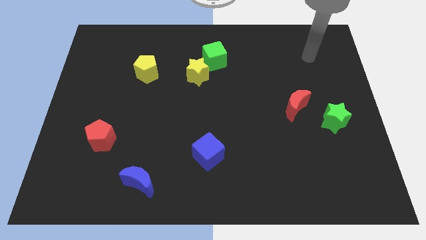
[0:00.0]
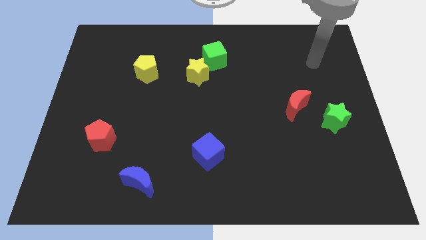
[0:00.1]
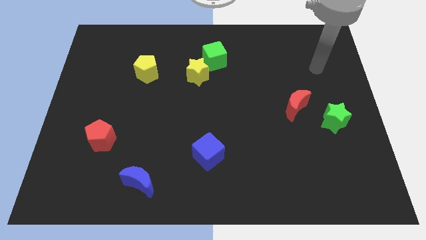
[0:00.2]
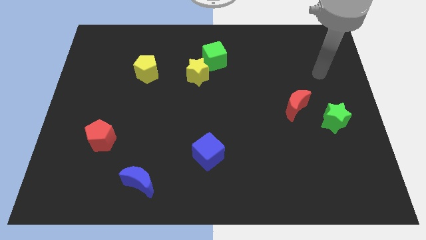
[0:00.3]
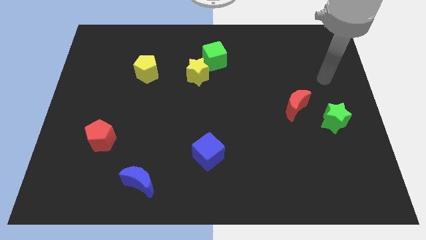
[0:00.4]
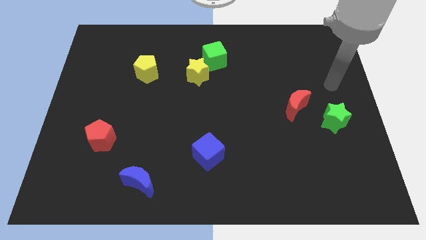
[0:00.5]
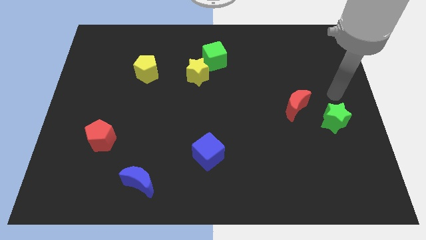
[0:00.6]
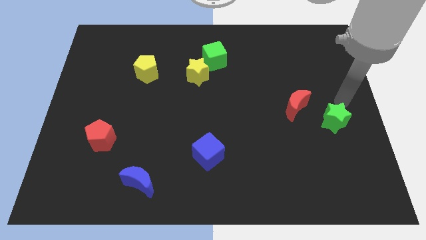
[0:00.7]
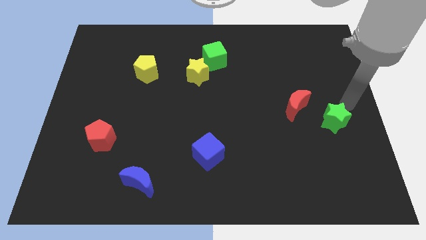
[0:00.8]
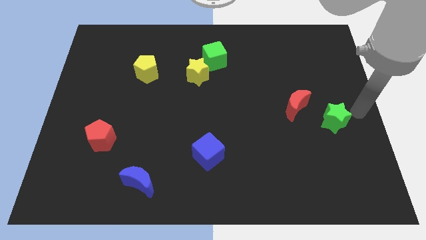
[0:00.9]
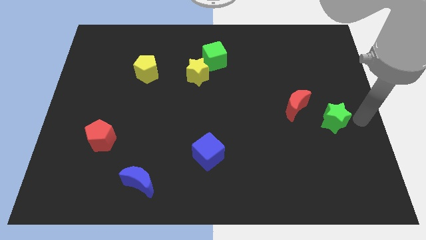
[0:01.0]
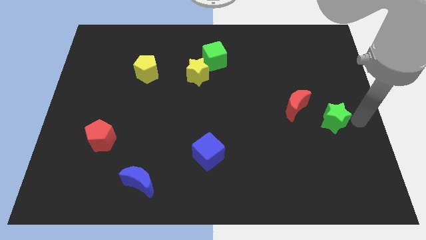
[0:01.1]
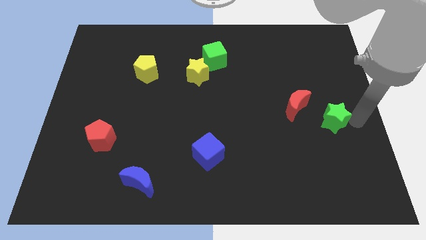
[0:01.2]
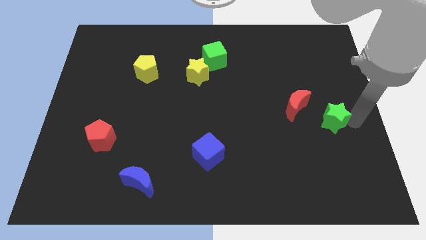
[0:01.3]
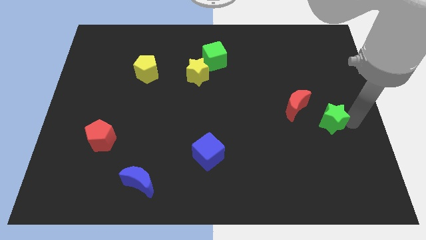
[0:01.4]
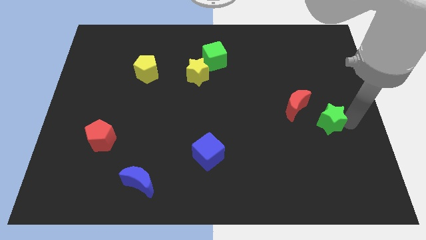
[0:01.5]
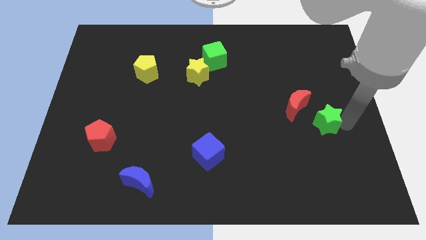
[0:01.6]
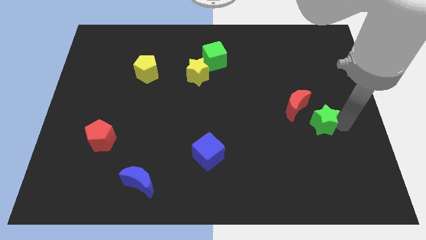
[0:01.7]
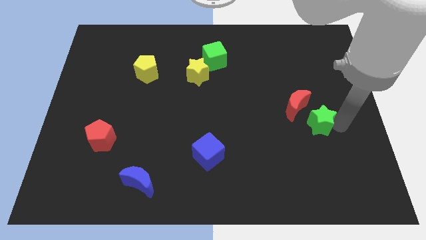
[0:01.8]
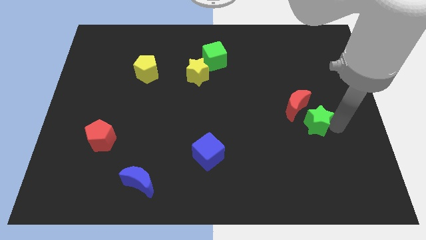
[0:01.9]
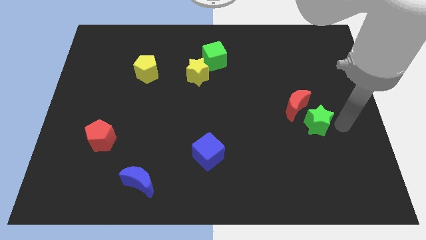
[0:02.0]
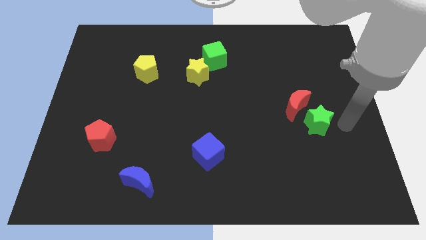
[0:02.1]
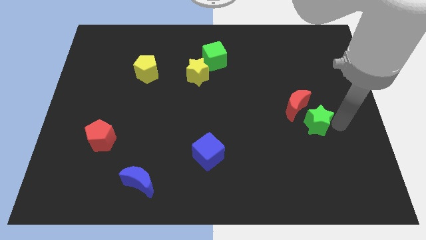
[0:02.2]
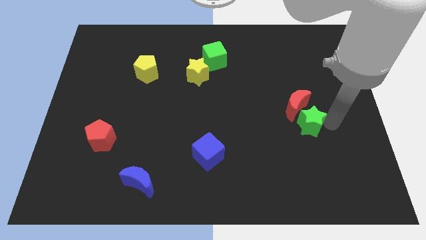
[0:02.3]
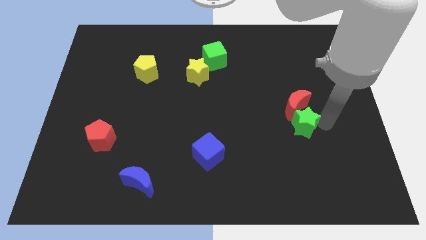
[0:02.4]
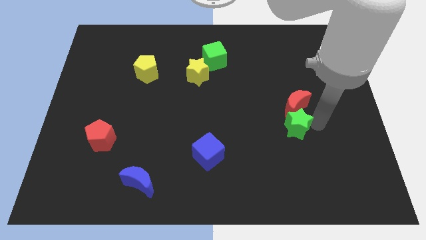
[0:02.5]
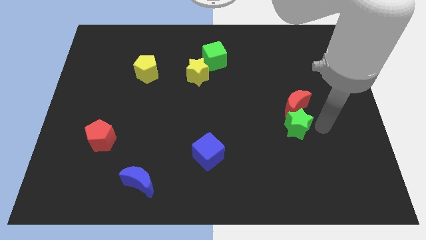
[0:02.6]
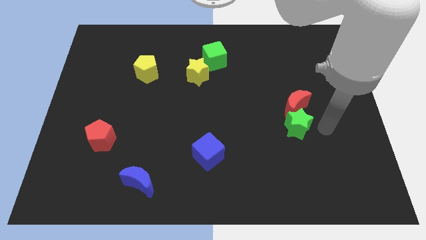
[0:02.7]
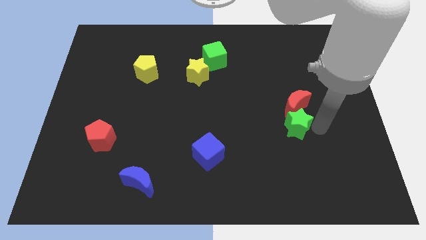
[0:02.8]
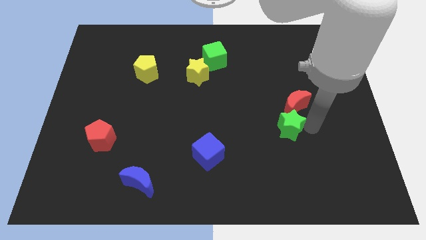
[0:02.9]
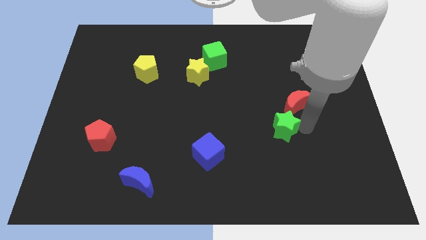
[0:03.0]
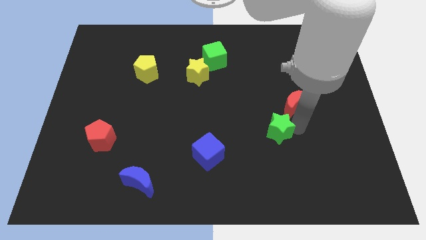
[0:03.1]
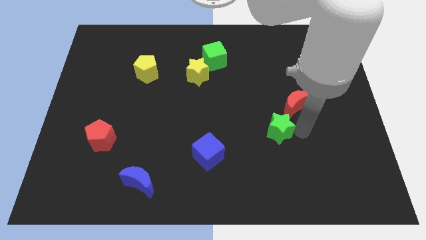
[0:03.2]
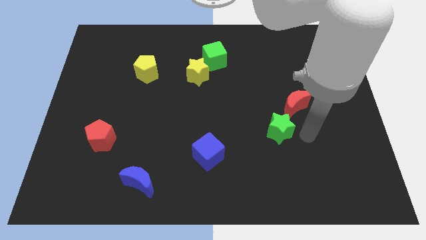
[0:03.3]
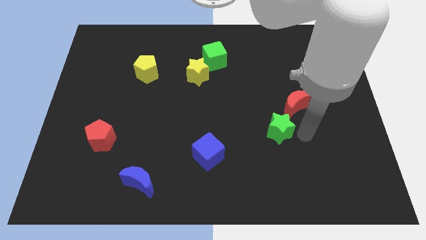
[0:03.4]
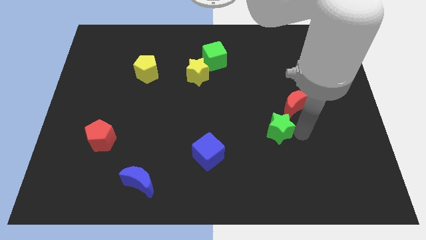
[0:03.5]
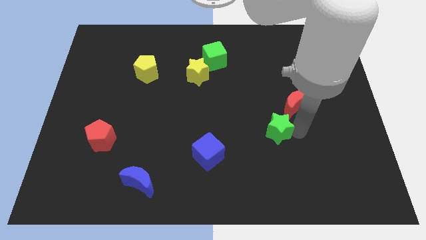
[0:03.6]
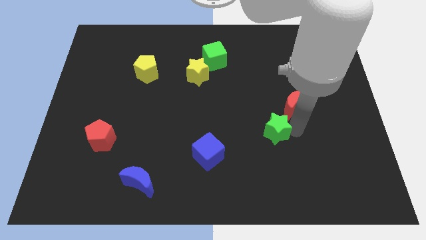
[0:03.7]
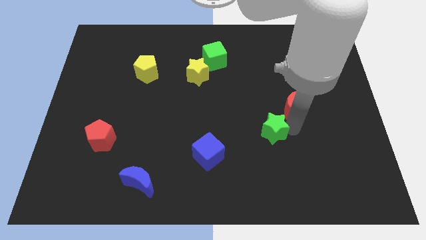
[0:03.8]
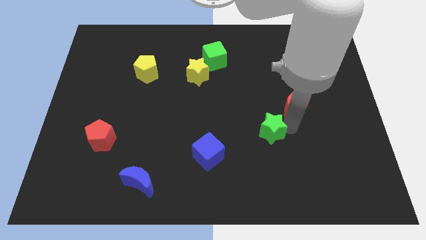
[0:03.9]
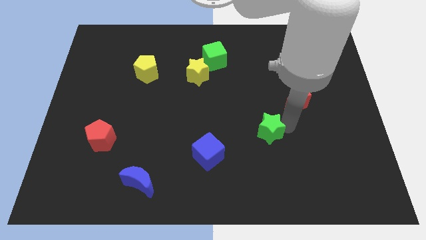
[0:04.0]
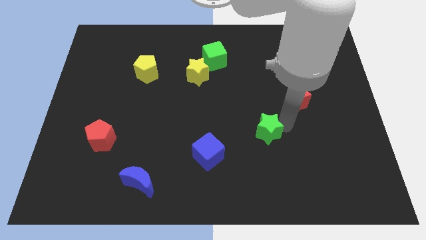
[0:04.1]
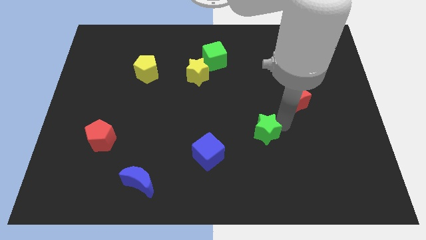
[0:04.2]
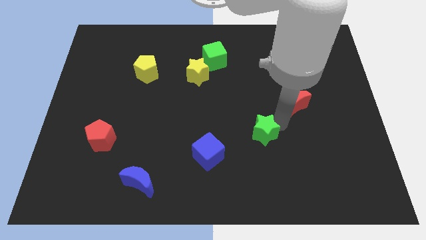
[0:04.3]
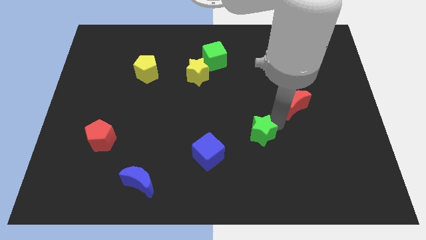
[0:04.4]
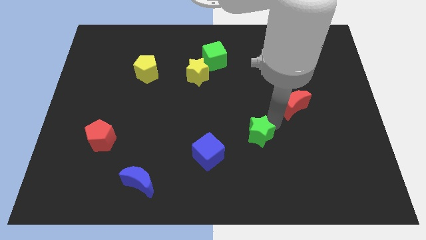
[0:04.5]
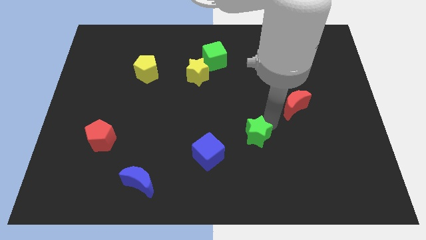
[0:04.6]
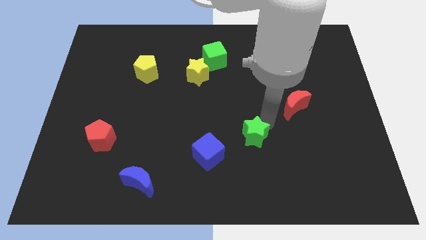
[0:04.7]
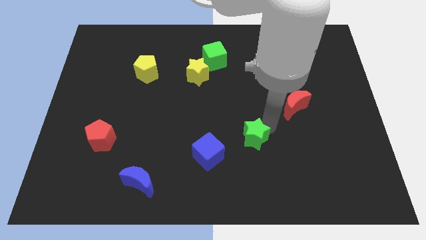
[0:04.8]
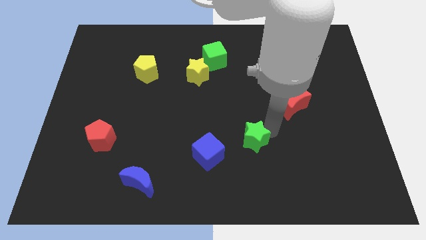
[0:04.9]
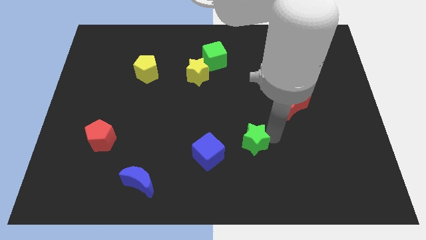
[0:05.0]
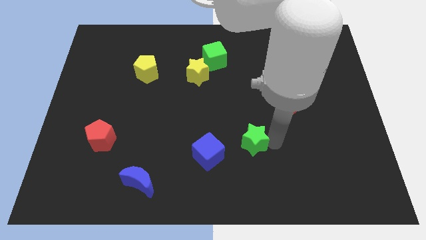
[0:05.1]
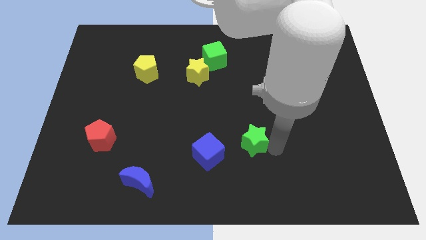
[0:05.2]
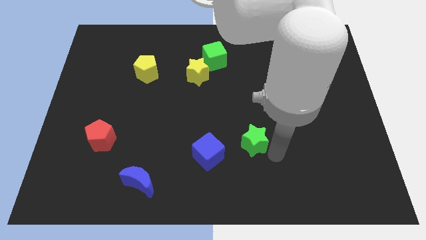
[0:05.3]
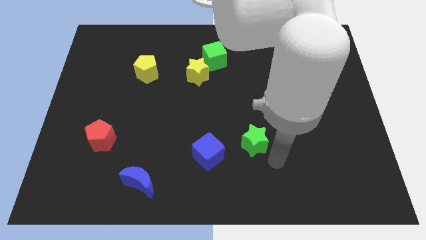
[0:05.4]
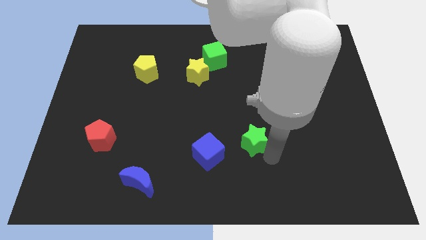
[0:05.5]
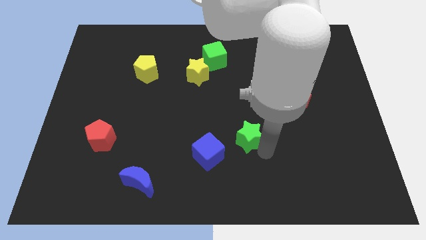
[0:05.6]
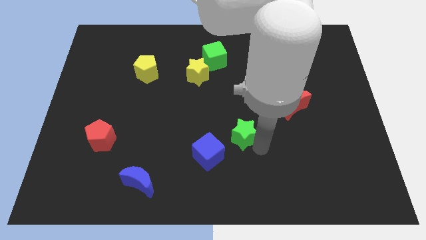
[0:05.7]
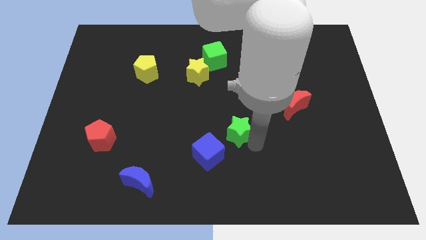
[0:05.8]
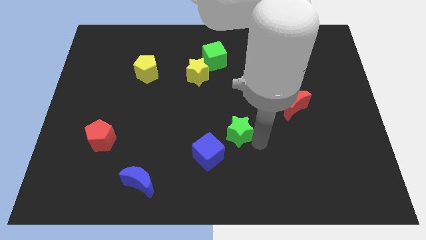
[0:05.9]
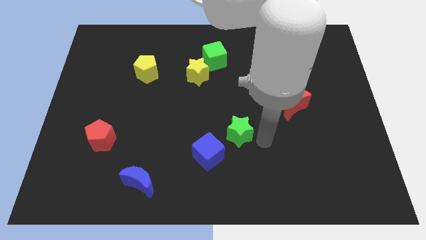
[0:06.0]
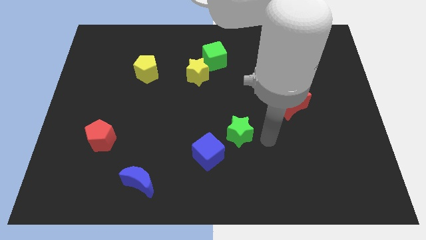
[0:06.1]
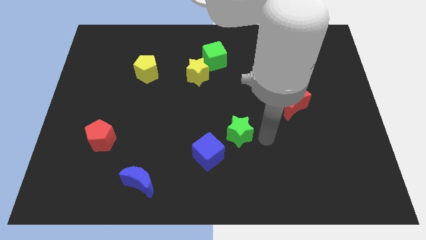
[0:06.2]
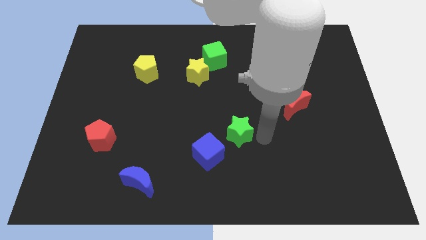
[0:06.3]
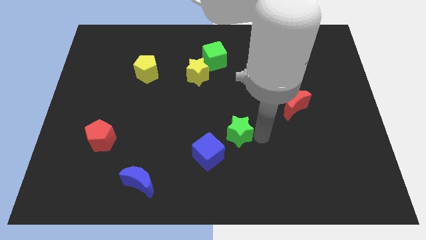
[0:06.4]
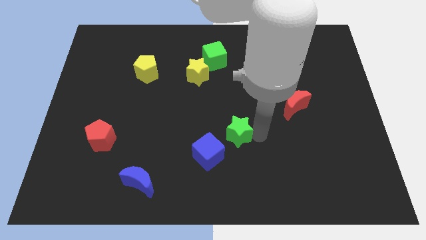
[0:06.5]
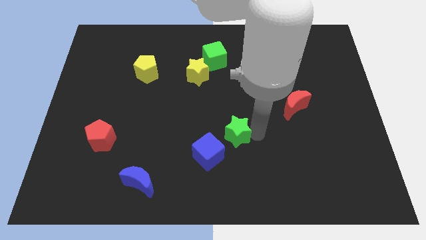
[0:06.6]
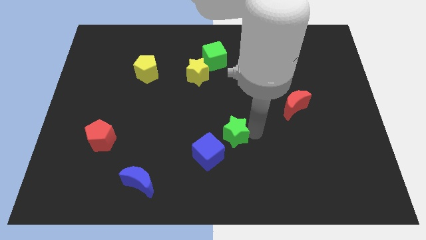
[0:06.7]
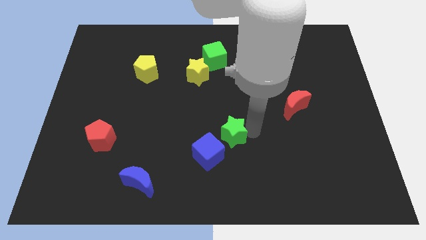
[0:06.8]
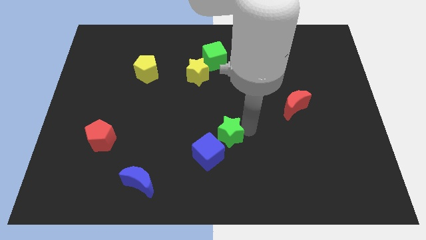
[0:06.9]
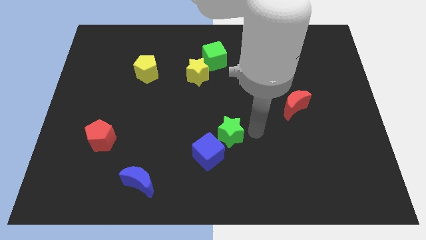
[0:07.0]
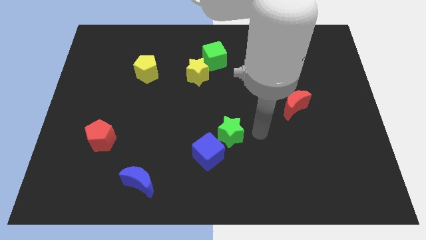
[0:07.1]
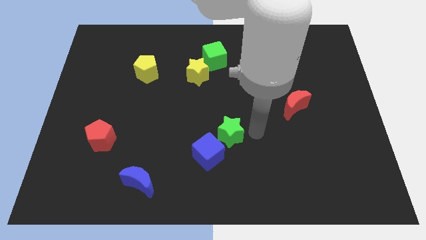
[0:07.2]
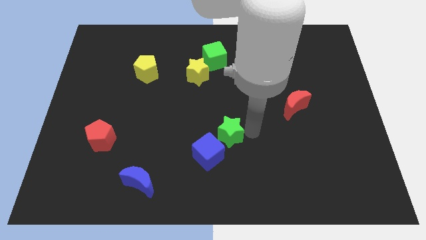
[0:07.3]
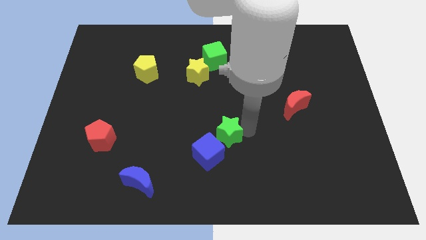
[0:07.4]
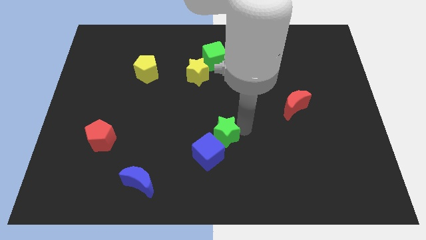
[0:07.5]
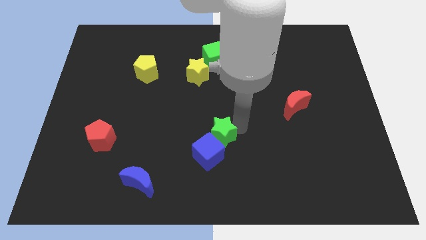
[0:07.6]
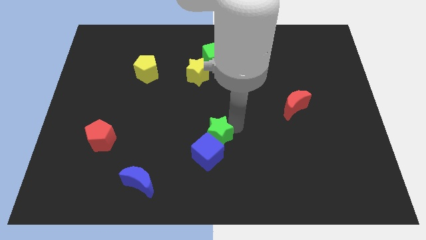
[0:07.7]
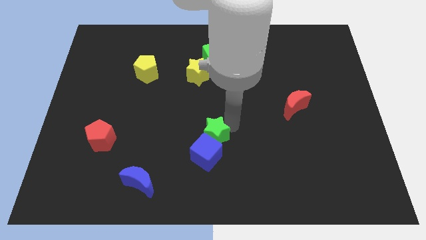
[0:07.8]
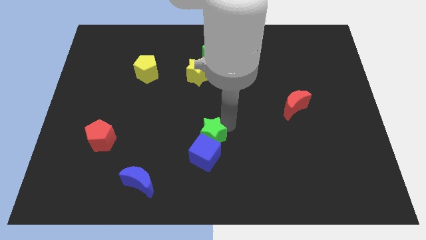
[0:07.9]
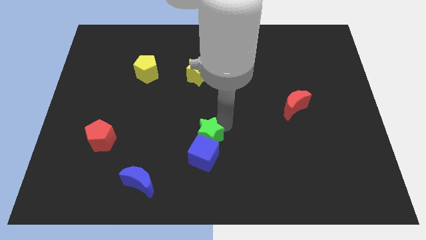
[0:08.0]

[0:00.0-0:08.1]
put the green star to the top left side of the blue cube
